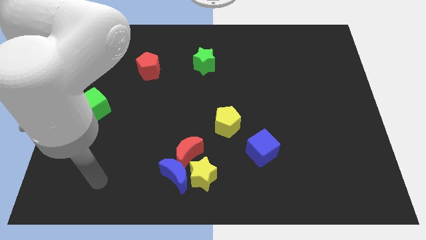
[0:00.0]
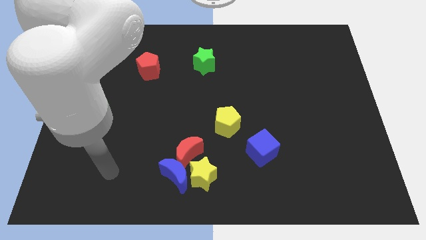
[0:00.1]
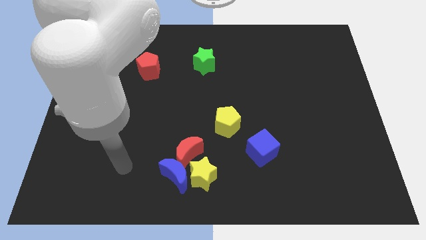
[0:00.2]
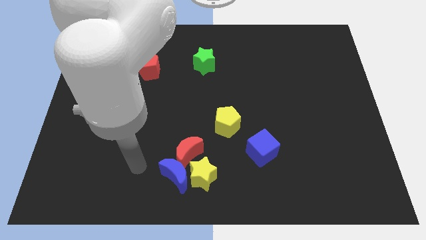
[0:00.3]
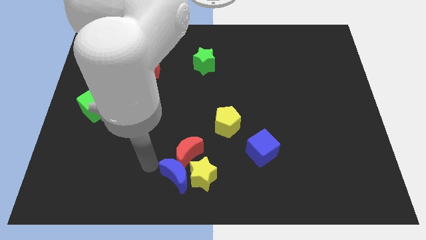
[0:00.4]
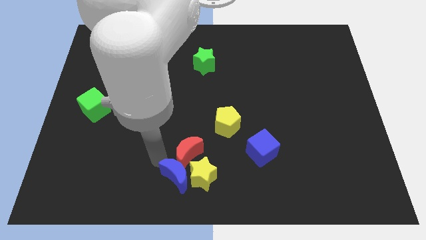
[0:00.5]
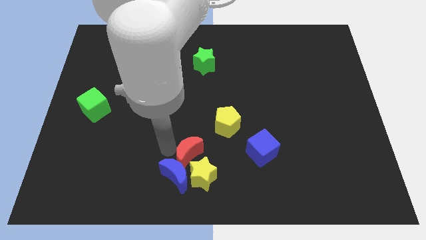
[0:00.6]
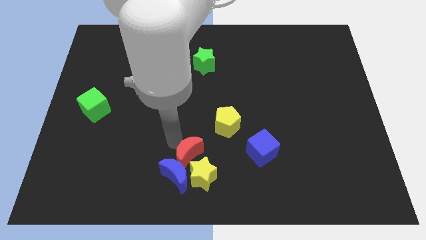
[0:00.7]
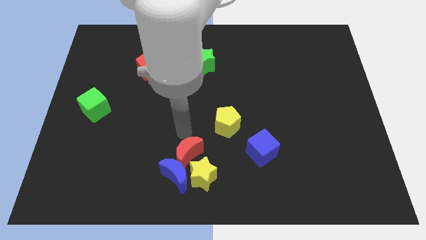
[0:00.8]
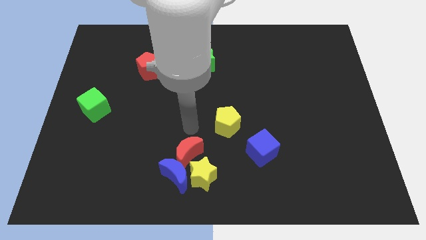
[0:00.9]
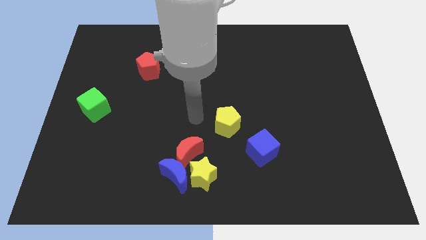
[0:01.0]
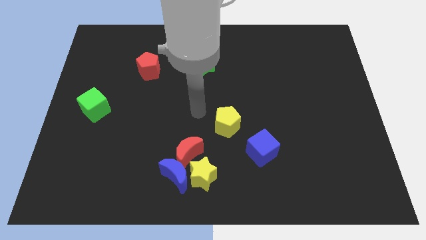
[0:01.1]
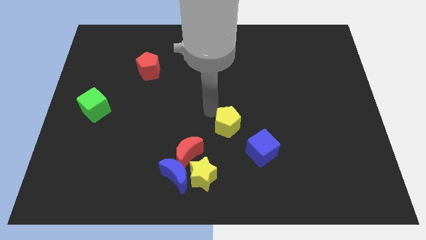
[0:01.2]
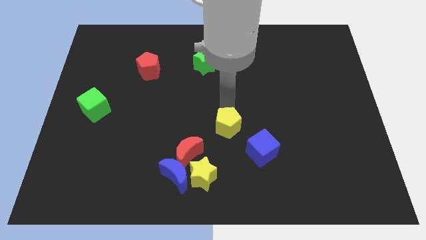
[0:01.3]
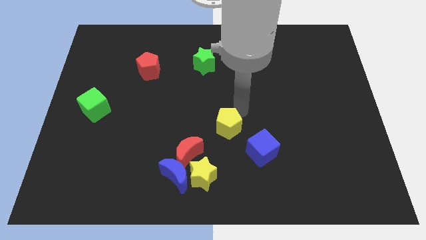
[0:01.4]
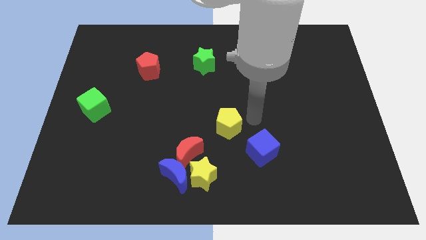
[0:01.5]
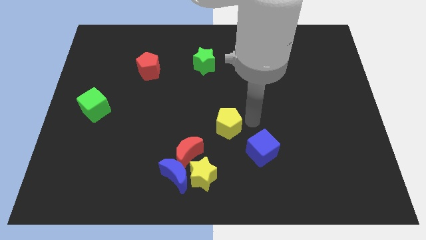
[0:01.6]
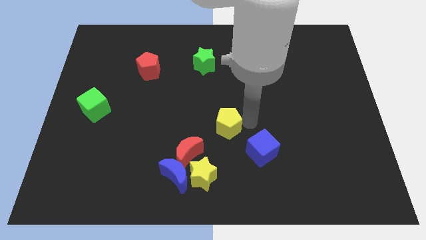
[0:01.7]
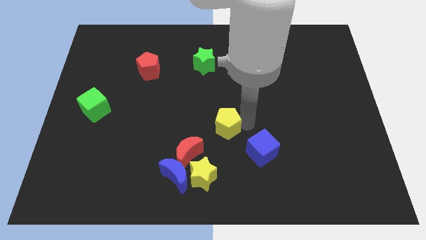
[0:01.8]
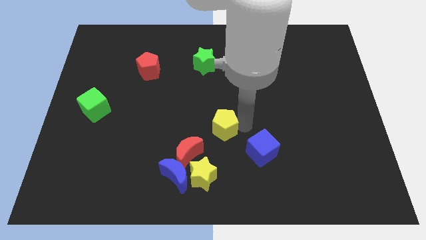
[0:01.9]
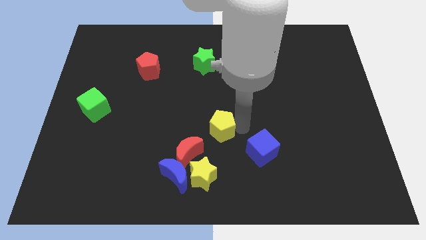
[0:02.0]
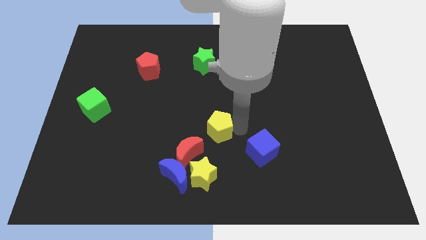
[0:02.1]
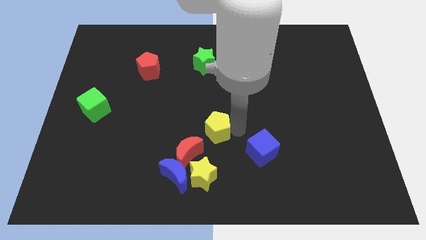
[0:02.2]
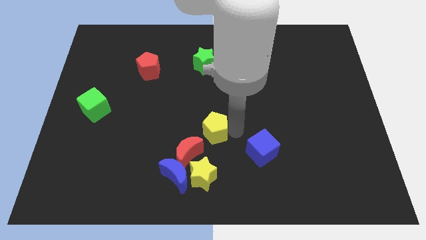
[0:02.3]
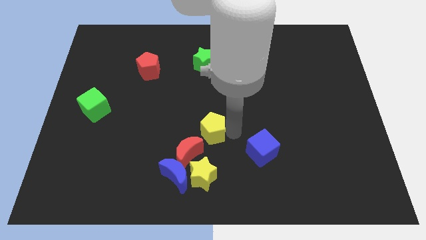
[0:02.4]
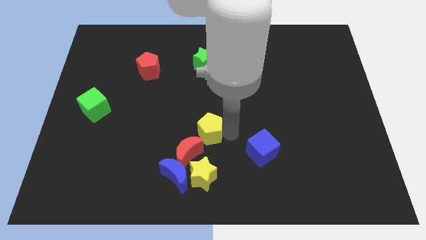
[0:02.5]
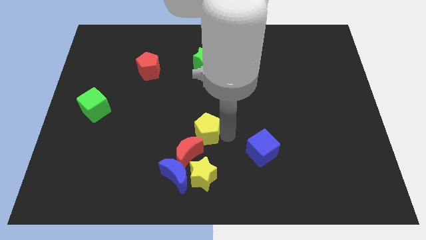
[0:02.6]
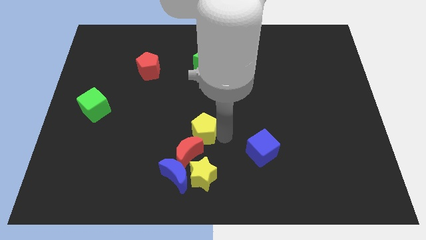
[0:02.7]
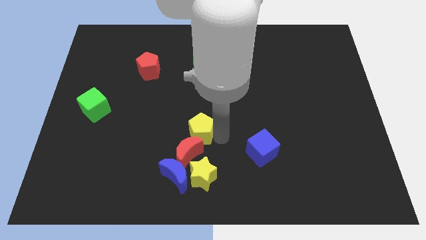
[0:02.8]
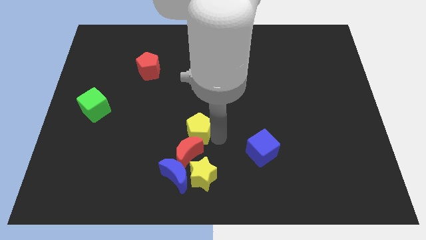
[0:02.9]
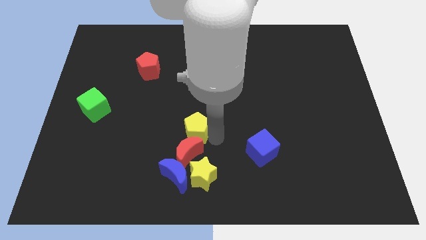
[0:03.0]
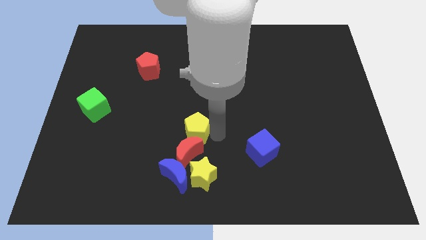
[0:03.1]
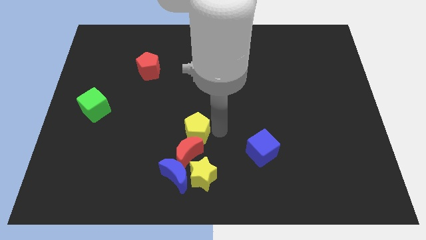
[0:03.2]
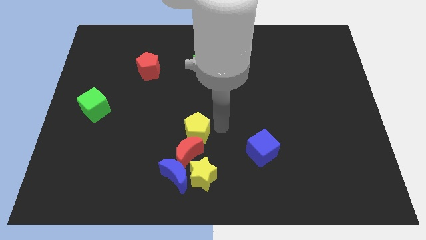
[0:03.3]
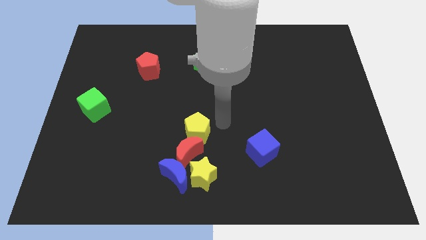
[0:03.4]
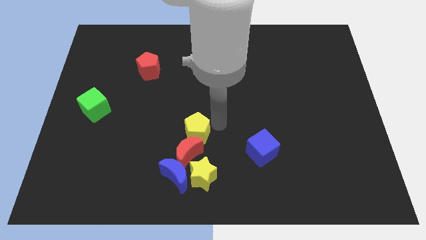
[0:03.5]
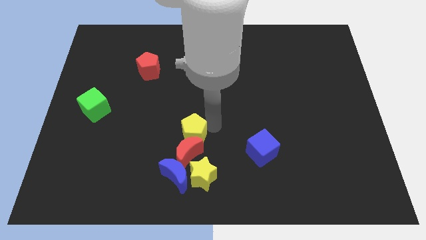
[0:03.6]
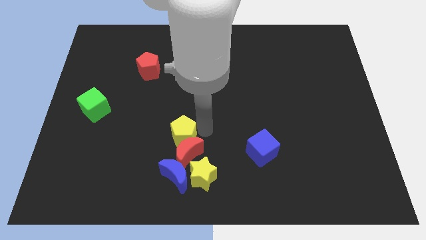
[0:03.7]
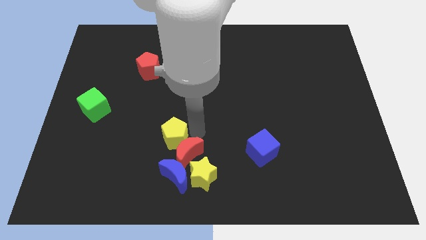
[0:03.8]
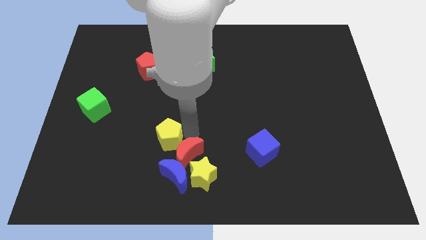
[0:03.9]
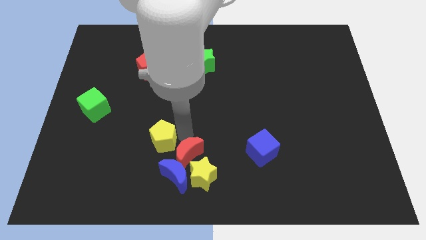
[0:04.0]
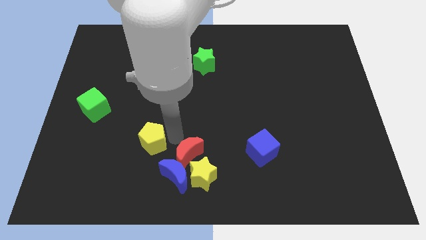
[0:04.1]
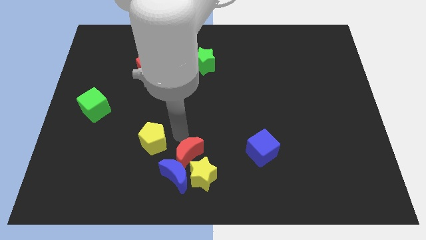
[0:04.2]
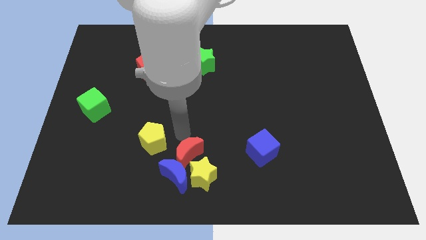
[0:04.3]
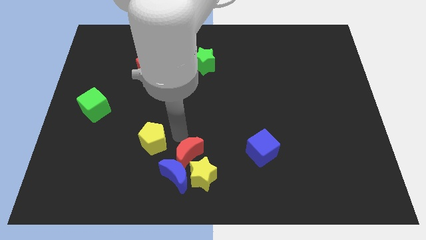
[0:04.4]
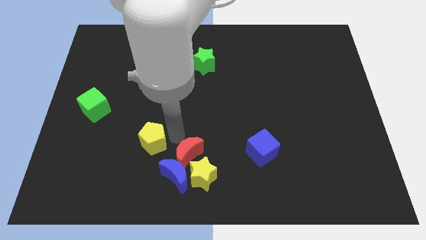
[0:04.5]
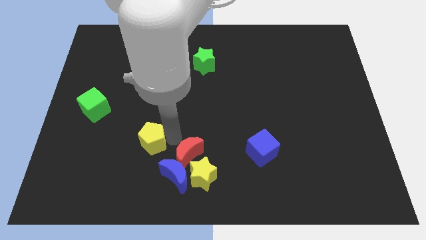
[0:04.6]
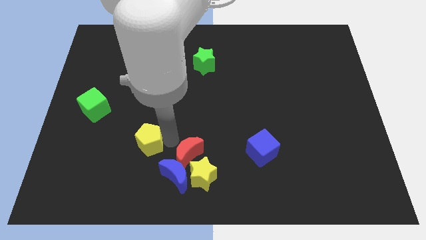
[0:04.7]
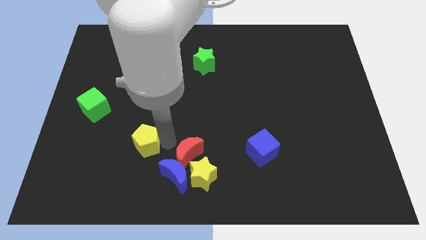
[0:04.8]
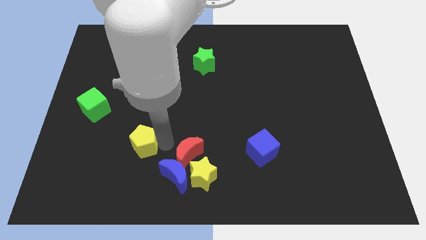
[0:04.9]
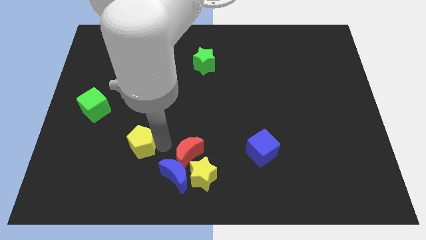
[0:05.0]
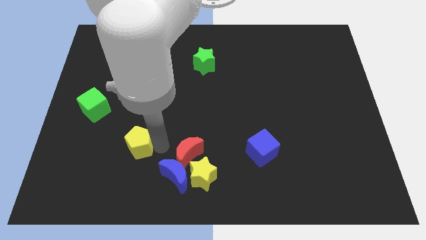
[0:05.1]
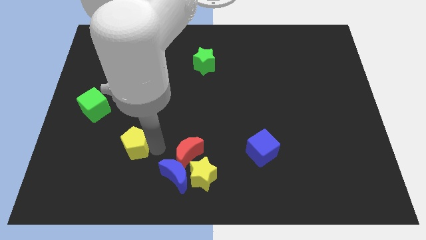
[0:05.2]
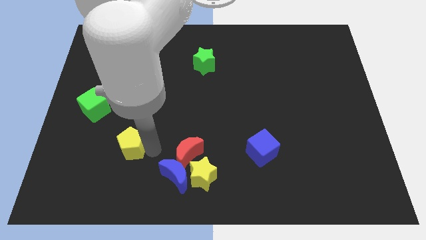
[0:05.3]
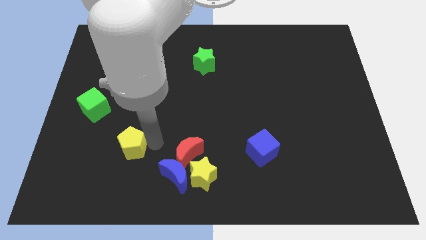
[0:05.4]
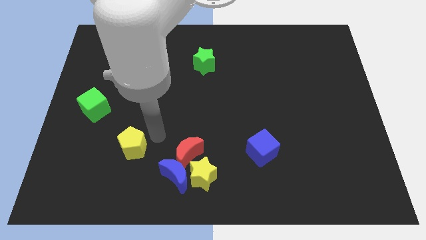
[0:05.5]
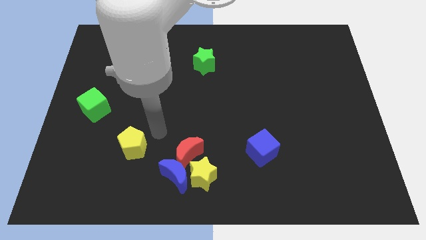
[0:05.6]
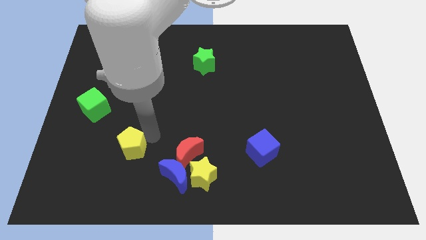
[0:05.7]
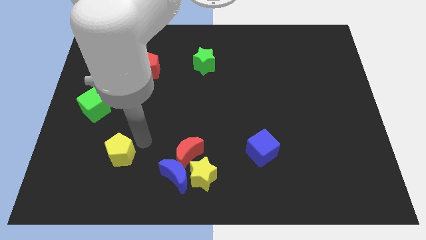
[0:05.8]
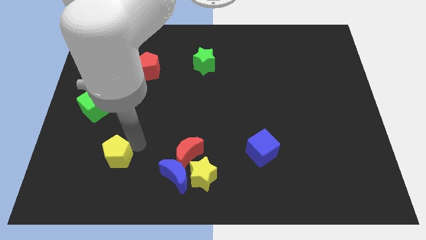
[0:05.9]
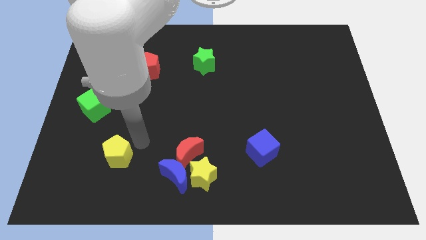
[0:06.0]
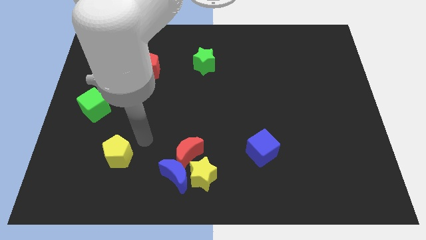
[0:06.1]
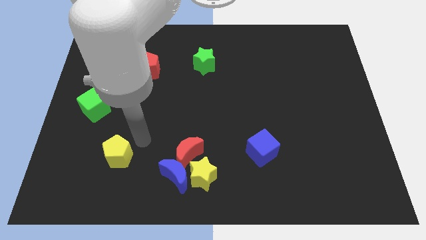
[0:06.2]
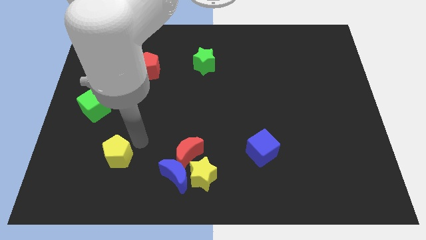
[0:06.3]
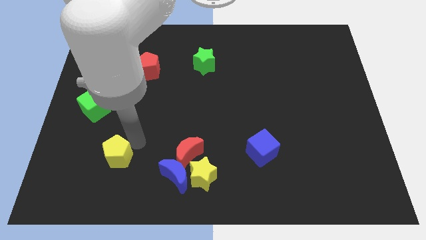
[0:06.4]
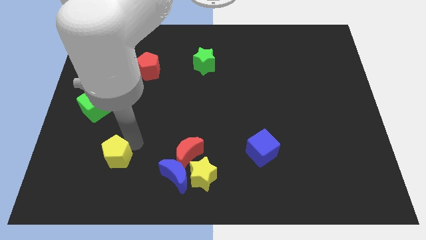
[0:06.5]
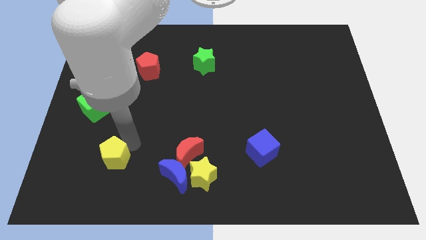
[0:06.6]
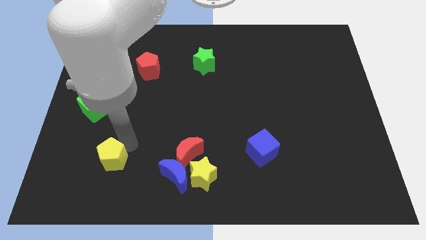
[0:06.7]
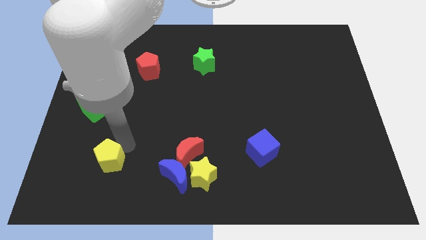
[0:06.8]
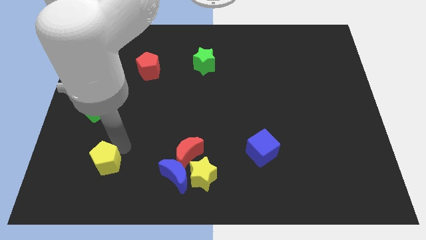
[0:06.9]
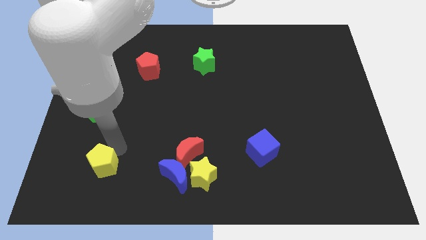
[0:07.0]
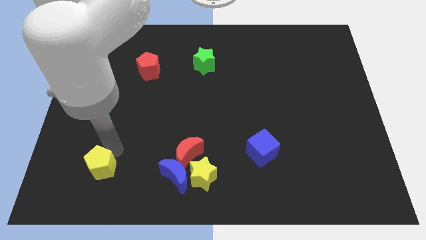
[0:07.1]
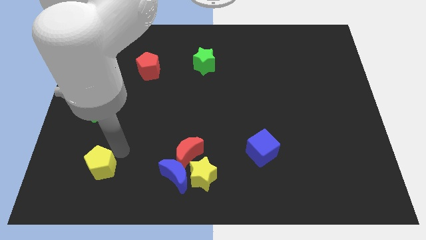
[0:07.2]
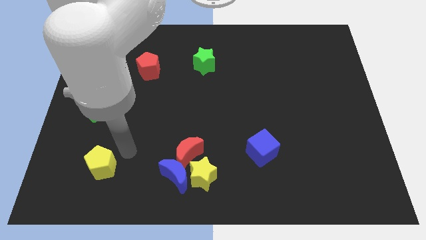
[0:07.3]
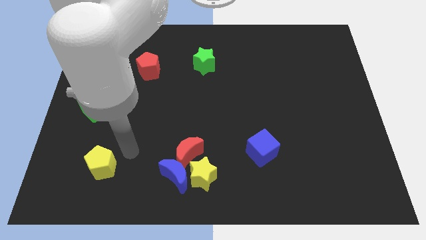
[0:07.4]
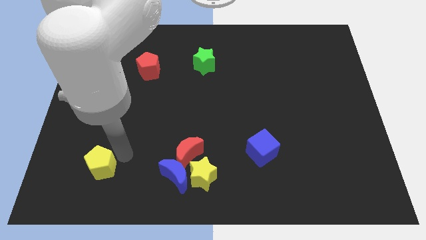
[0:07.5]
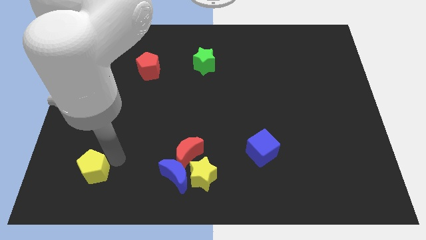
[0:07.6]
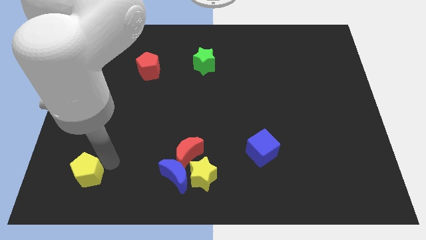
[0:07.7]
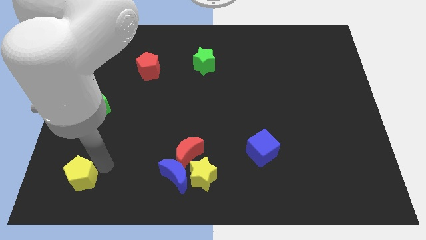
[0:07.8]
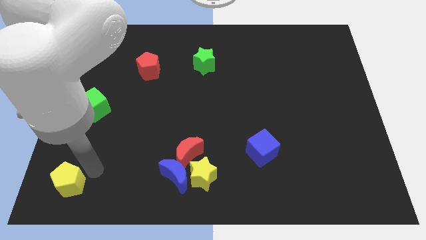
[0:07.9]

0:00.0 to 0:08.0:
push the yellow pentagon to the bottom left corner
